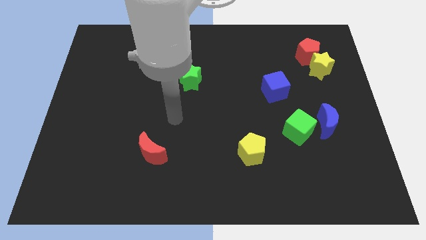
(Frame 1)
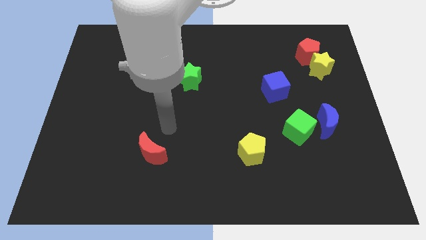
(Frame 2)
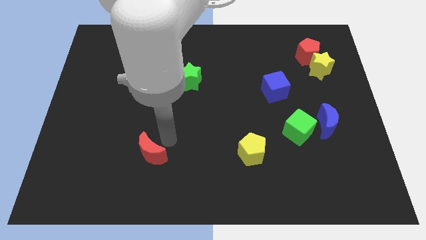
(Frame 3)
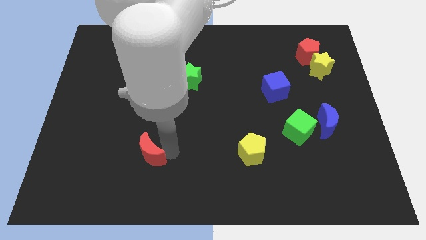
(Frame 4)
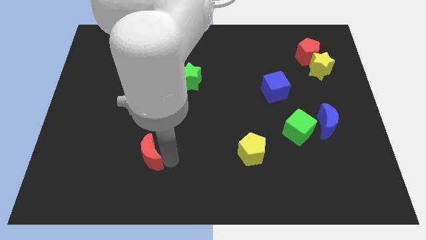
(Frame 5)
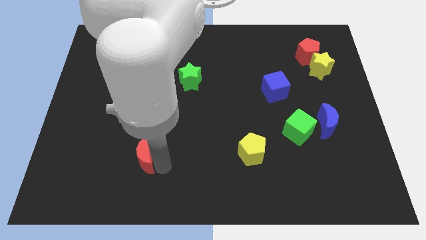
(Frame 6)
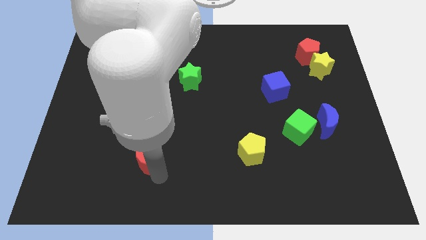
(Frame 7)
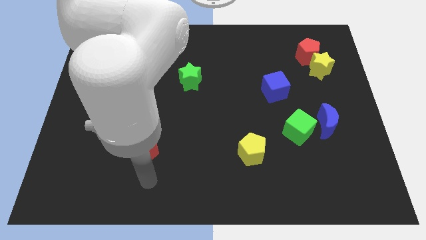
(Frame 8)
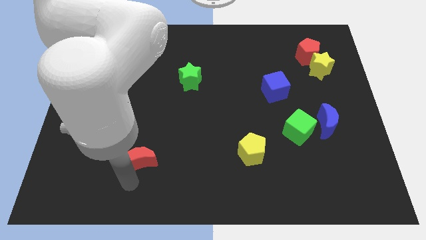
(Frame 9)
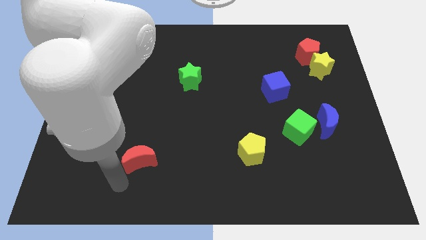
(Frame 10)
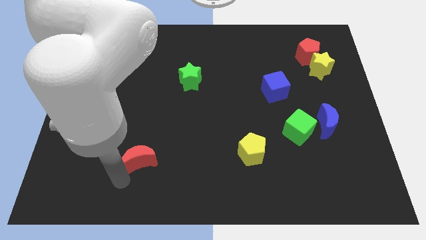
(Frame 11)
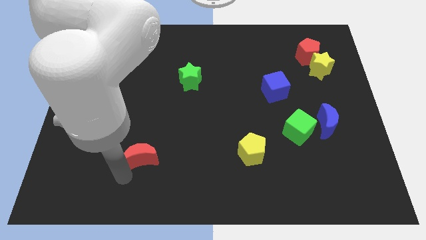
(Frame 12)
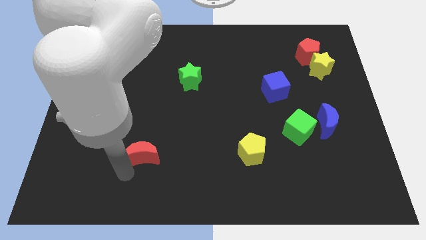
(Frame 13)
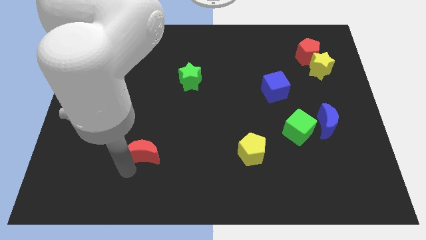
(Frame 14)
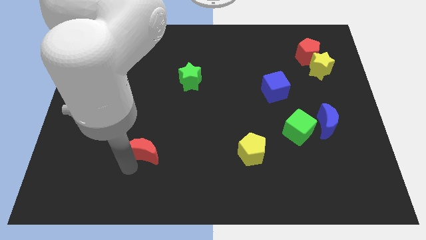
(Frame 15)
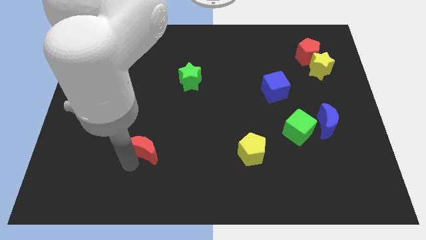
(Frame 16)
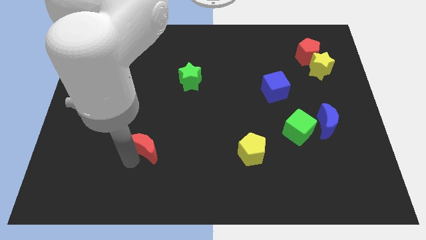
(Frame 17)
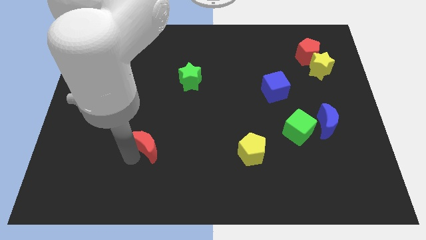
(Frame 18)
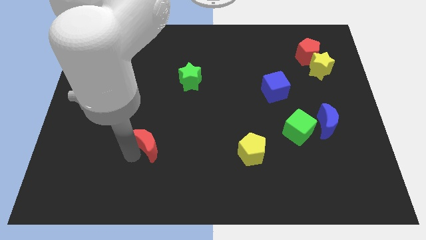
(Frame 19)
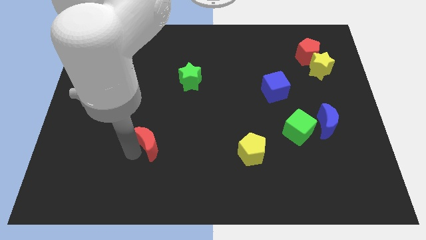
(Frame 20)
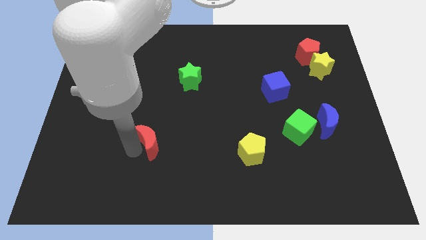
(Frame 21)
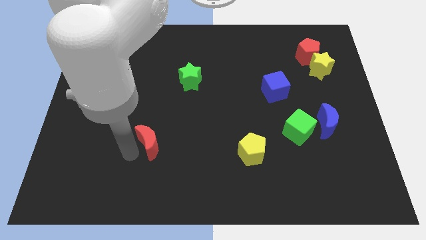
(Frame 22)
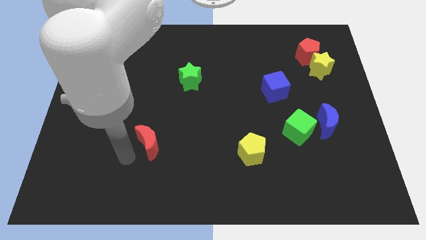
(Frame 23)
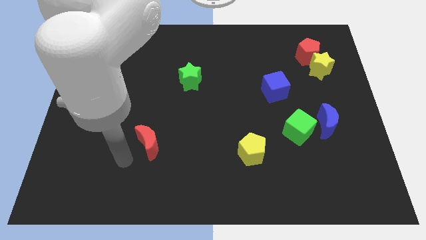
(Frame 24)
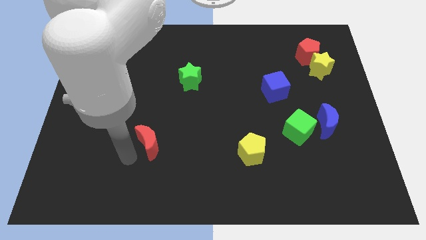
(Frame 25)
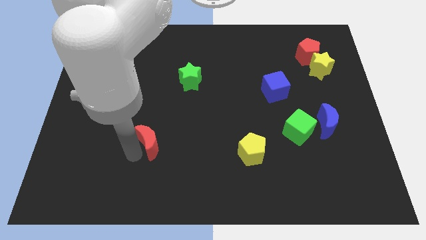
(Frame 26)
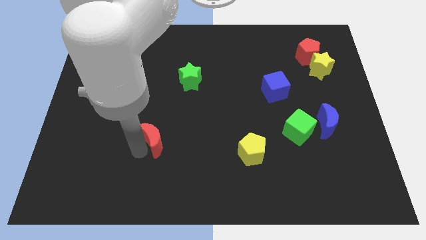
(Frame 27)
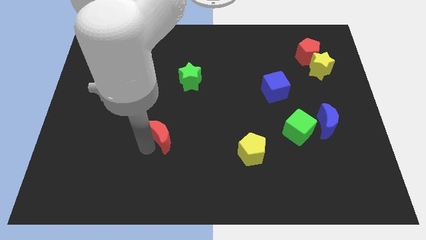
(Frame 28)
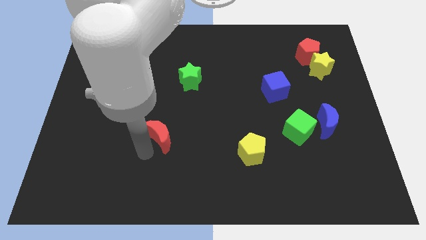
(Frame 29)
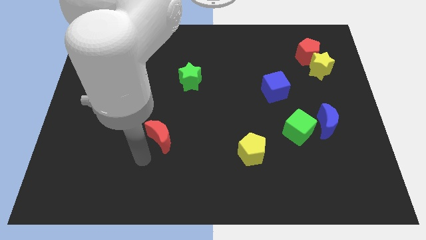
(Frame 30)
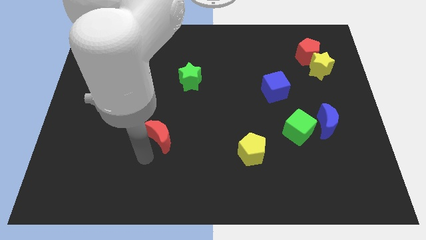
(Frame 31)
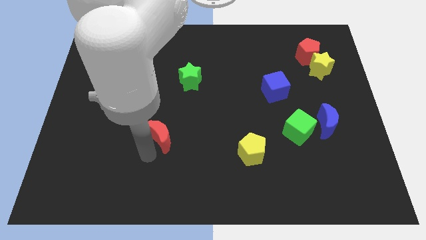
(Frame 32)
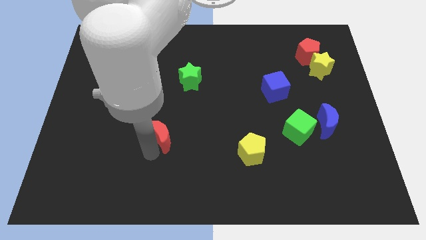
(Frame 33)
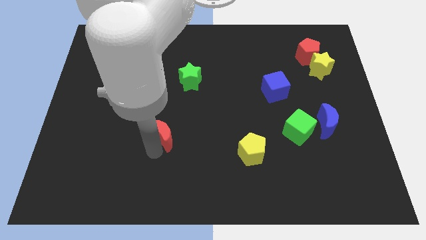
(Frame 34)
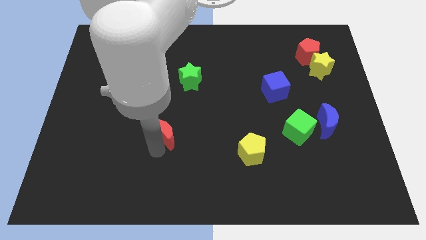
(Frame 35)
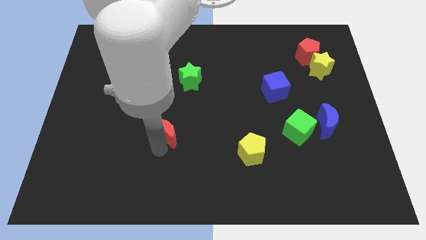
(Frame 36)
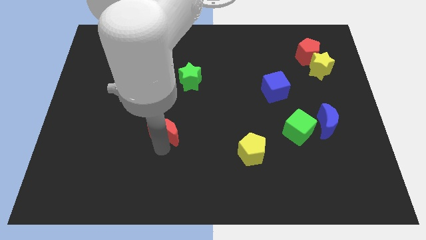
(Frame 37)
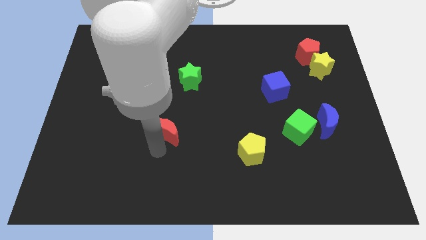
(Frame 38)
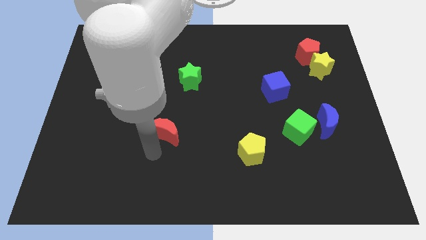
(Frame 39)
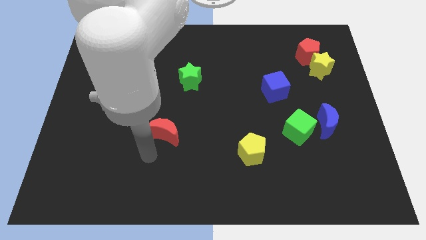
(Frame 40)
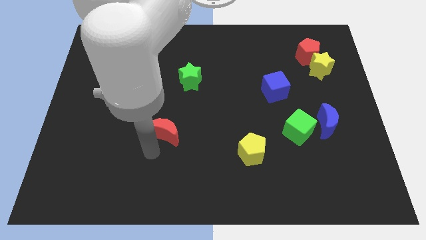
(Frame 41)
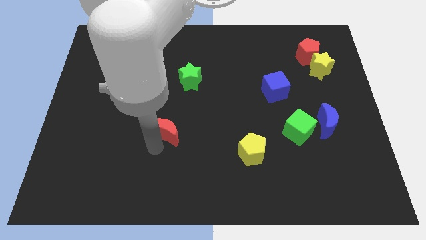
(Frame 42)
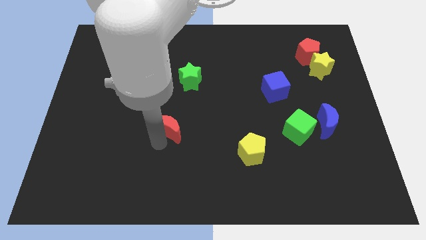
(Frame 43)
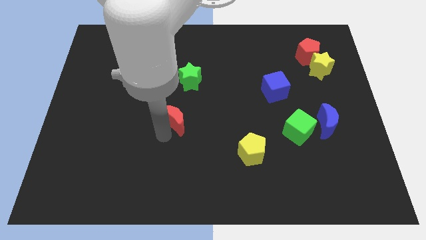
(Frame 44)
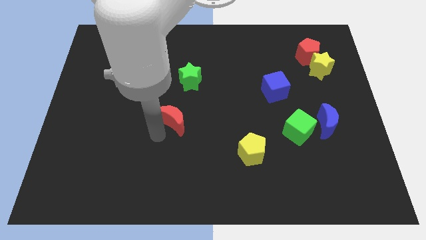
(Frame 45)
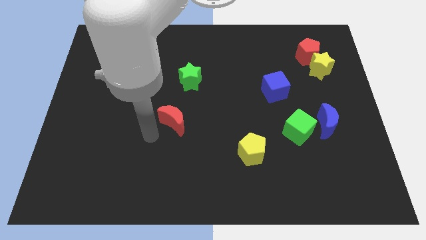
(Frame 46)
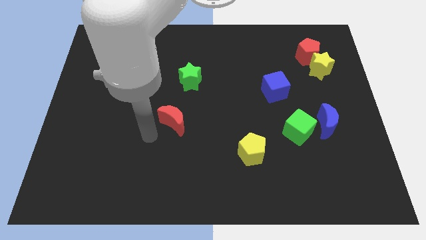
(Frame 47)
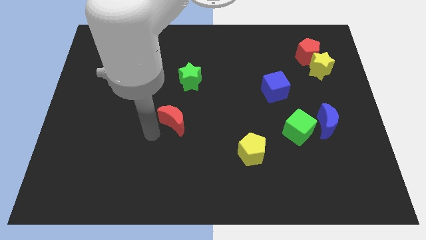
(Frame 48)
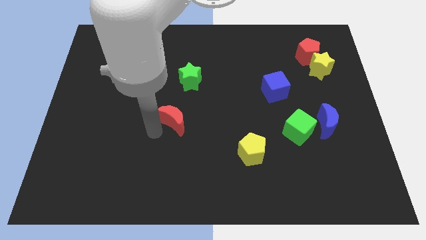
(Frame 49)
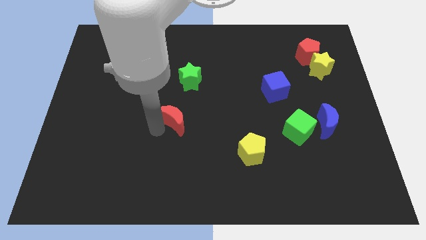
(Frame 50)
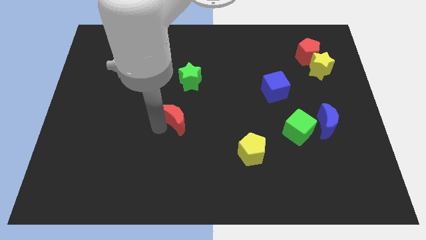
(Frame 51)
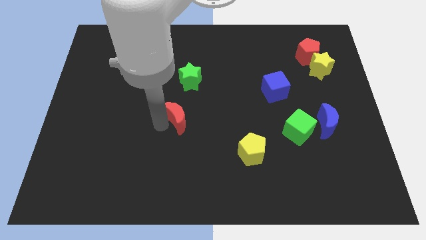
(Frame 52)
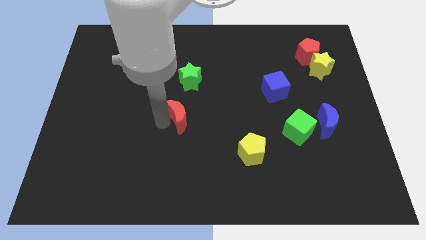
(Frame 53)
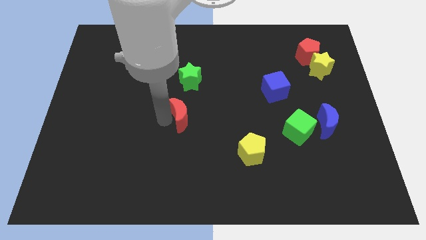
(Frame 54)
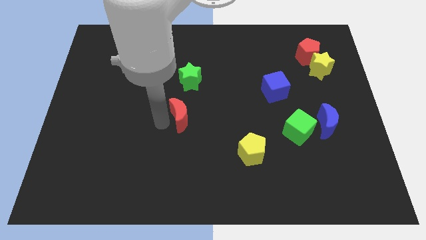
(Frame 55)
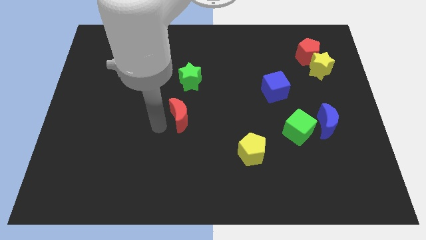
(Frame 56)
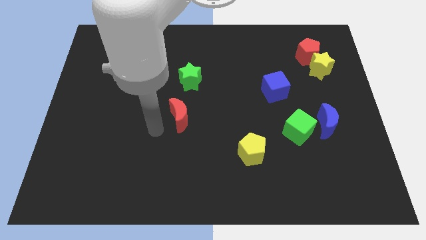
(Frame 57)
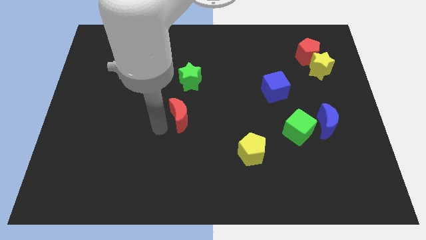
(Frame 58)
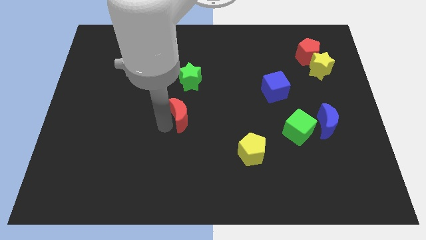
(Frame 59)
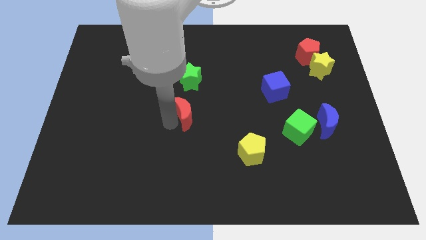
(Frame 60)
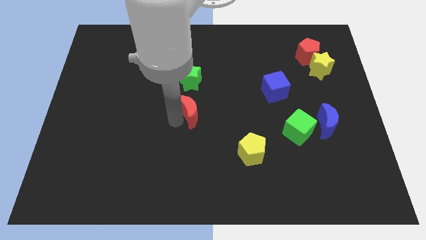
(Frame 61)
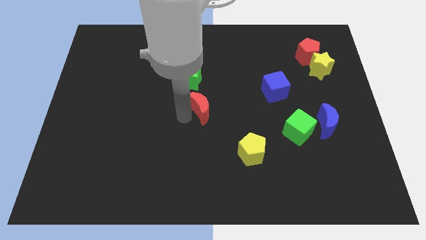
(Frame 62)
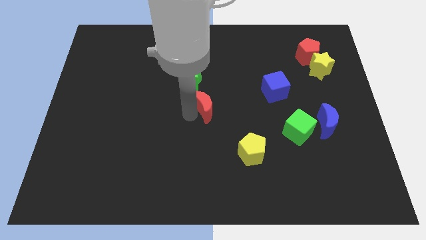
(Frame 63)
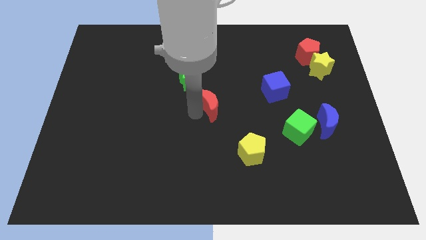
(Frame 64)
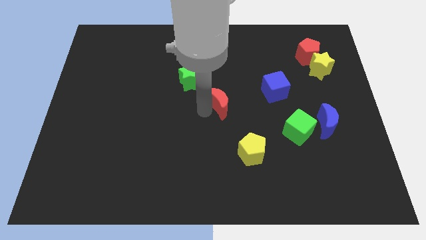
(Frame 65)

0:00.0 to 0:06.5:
move the red moon upwards and then right

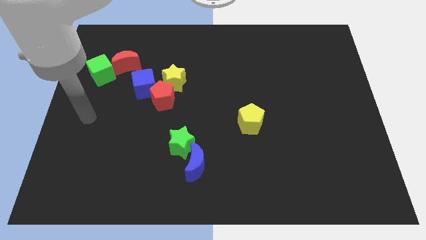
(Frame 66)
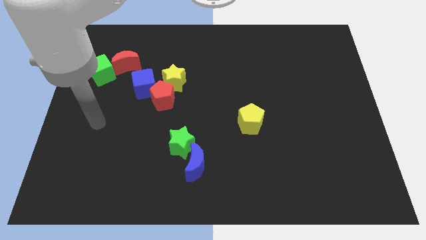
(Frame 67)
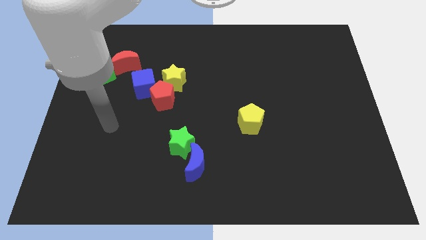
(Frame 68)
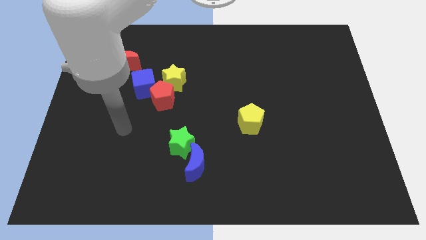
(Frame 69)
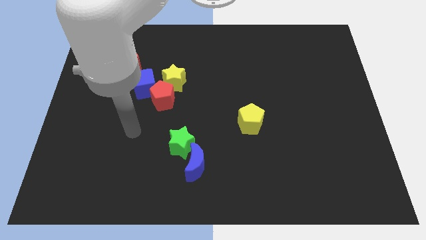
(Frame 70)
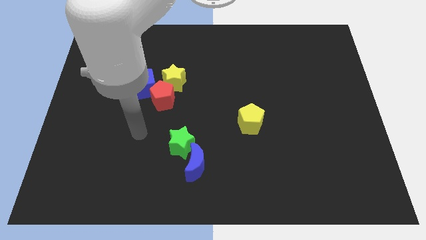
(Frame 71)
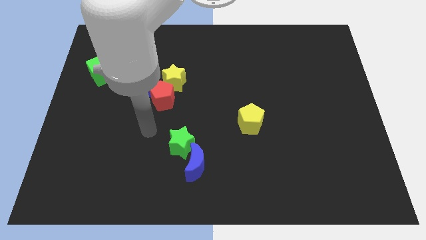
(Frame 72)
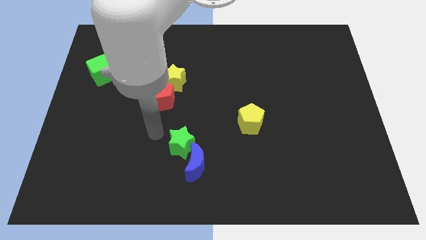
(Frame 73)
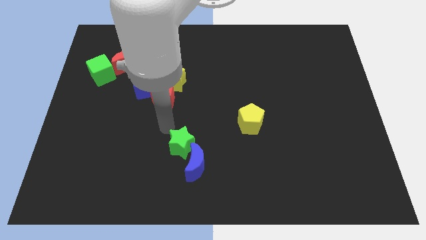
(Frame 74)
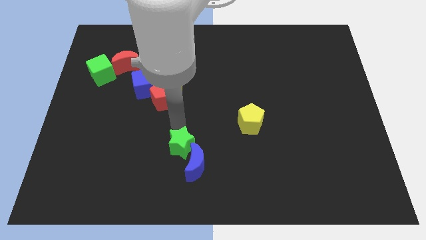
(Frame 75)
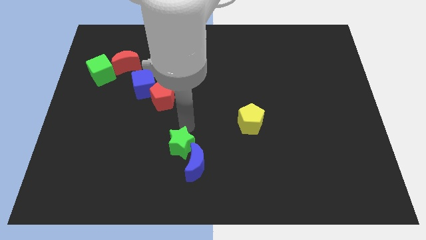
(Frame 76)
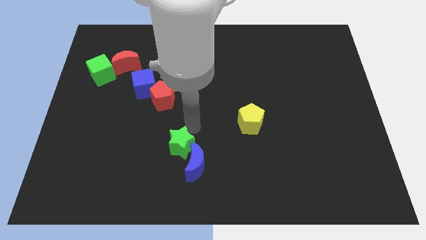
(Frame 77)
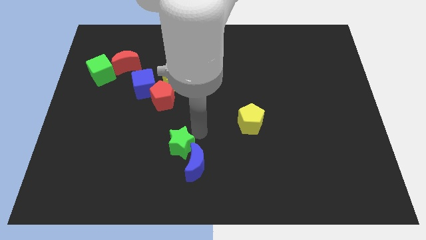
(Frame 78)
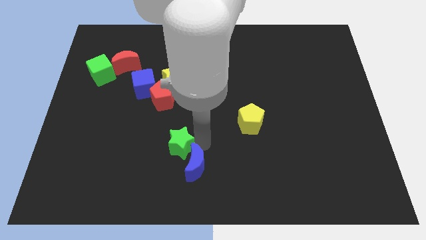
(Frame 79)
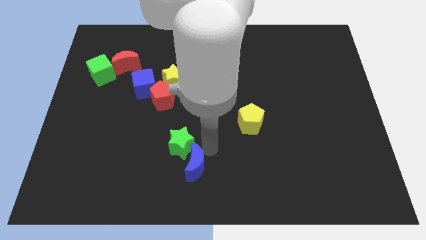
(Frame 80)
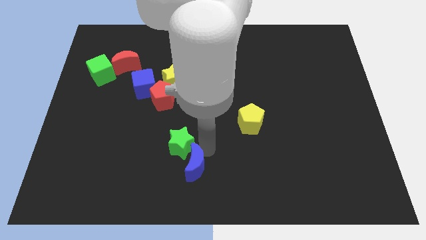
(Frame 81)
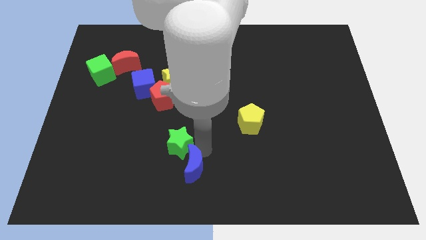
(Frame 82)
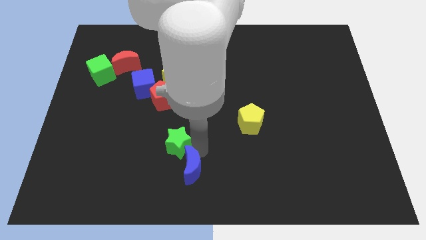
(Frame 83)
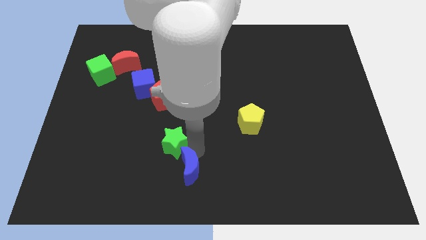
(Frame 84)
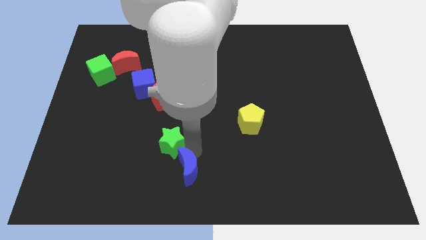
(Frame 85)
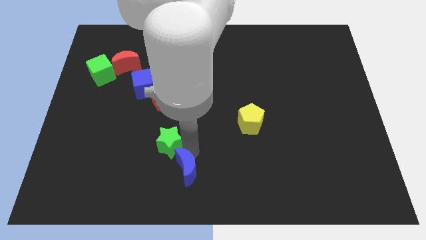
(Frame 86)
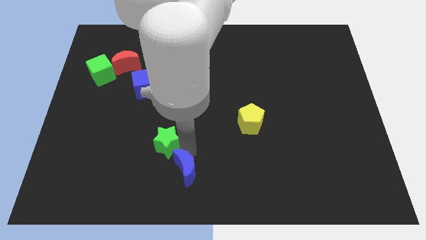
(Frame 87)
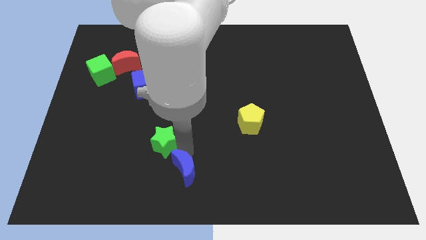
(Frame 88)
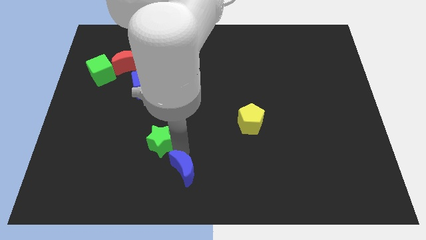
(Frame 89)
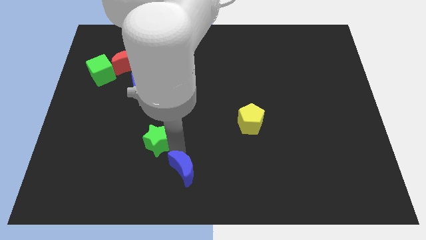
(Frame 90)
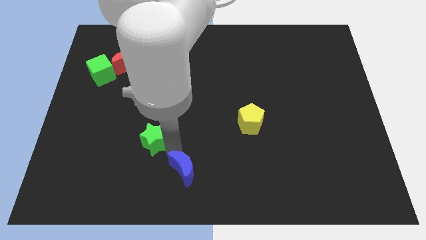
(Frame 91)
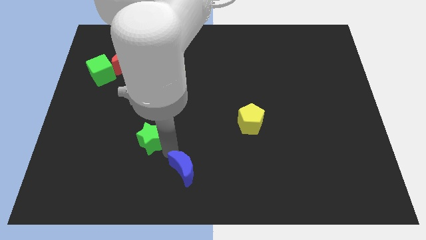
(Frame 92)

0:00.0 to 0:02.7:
slide the green star left a little
